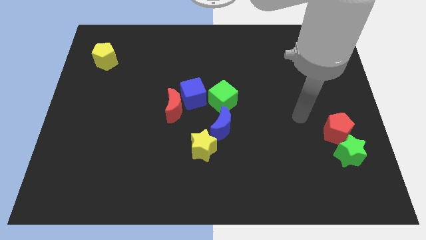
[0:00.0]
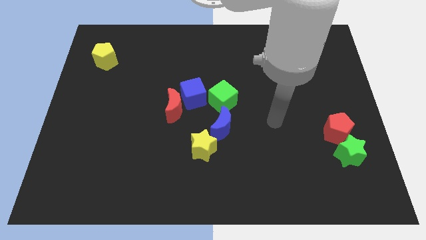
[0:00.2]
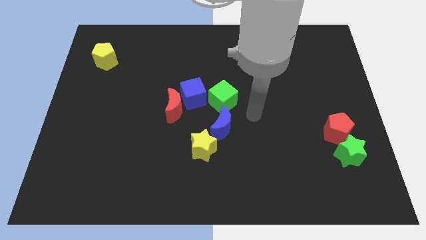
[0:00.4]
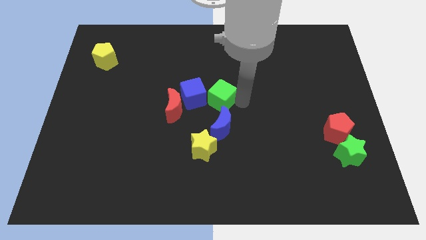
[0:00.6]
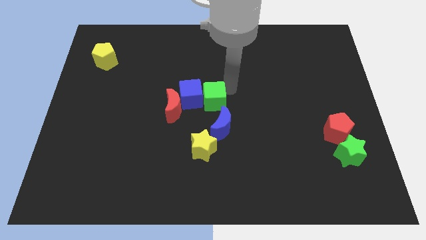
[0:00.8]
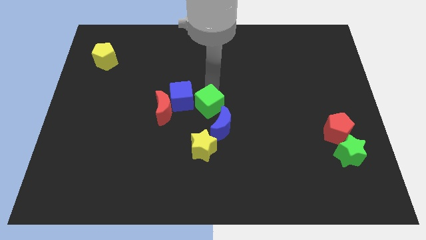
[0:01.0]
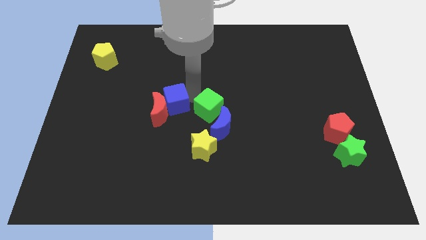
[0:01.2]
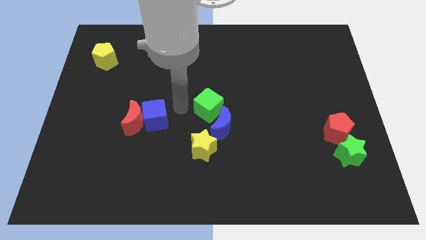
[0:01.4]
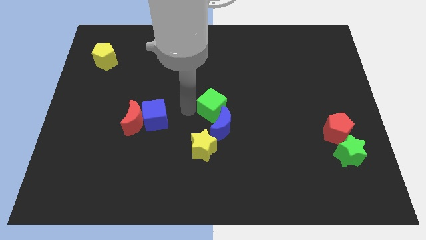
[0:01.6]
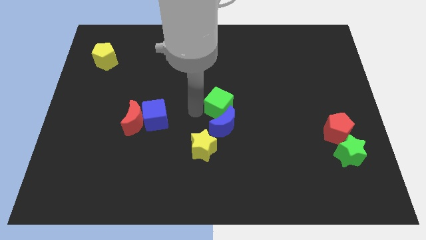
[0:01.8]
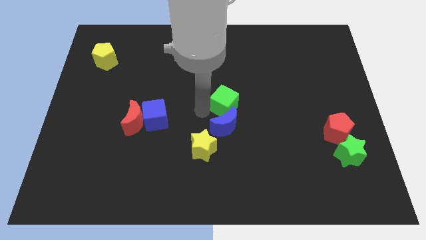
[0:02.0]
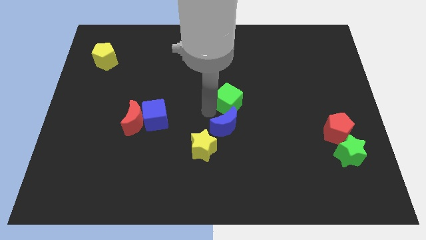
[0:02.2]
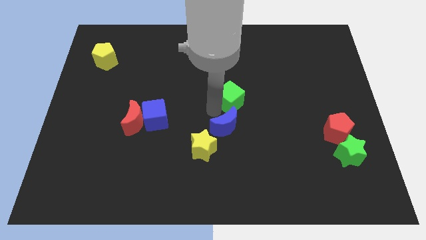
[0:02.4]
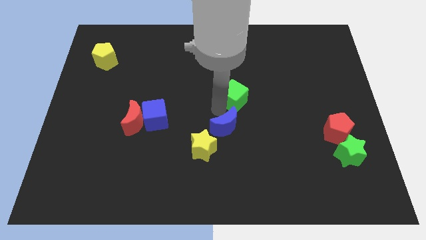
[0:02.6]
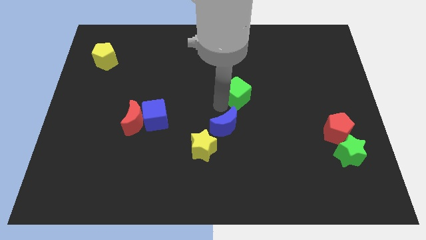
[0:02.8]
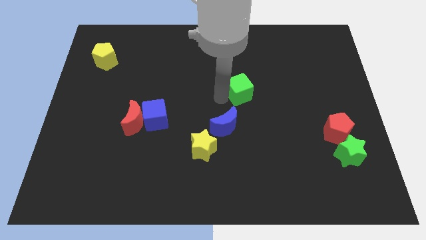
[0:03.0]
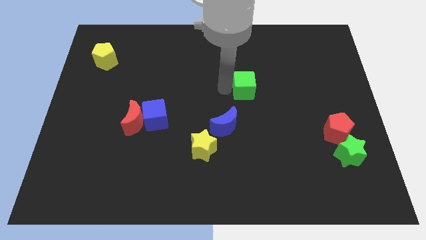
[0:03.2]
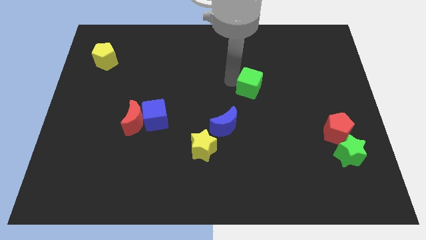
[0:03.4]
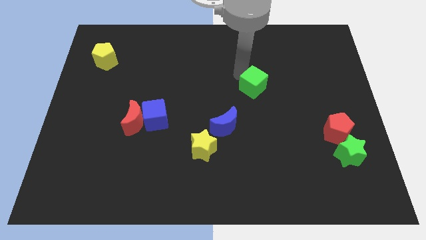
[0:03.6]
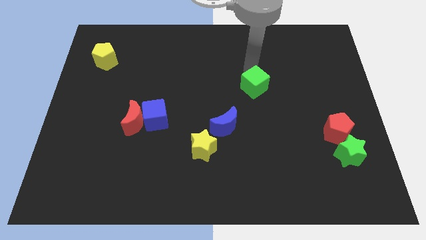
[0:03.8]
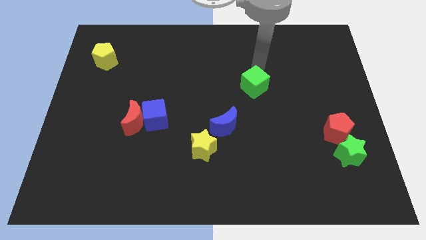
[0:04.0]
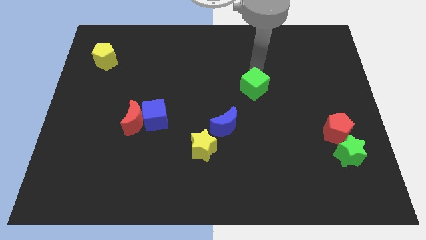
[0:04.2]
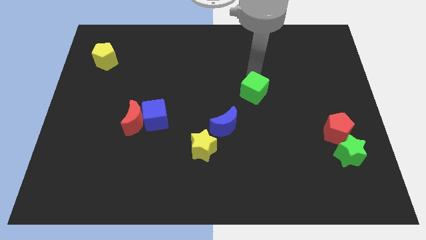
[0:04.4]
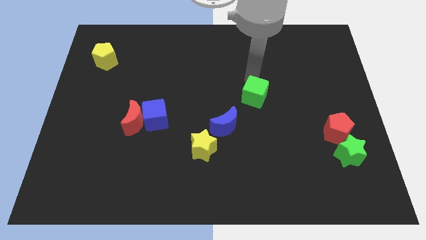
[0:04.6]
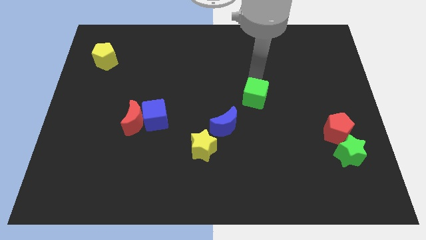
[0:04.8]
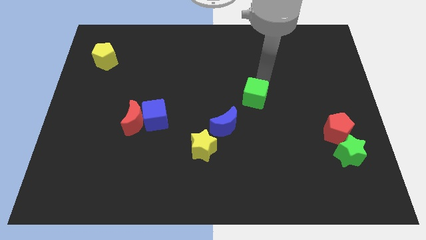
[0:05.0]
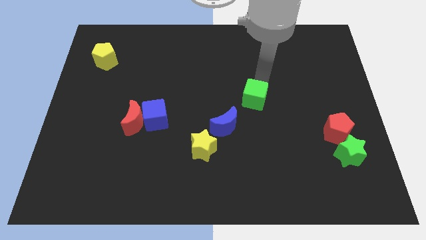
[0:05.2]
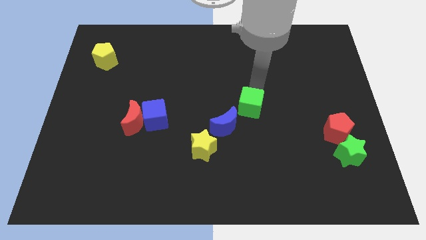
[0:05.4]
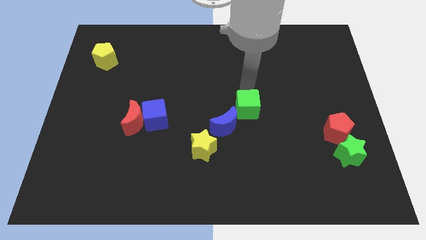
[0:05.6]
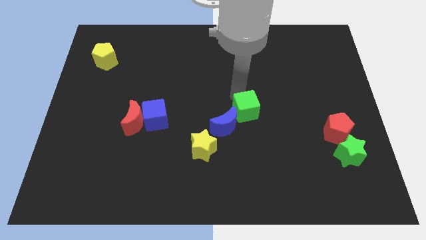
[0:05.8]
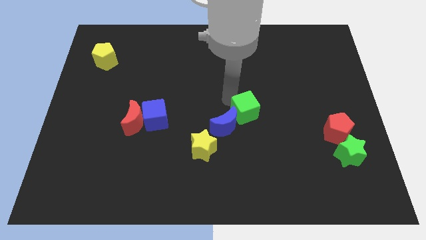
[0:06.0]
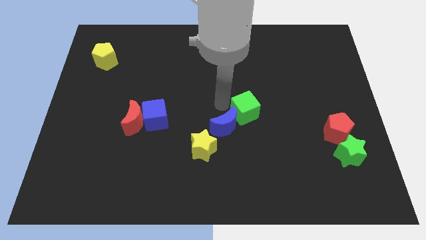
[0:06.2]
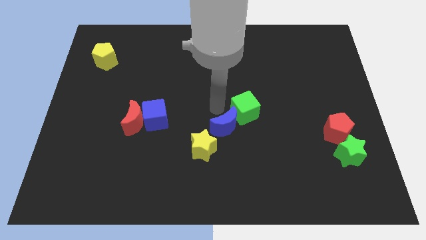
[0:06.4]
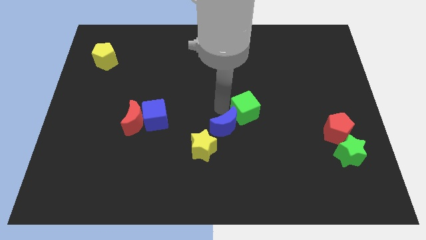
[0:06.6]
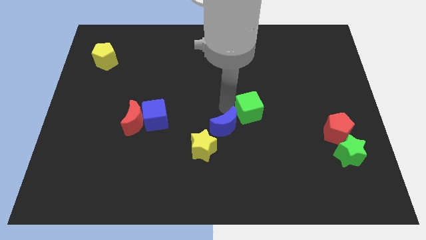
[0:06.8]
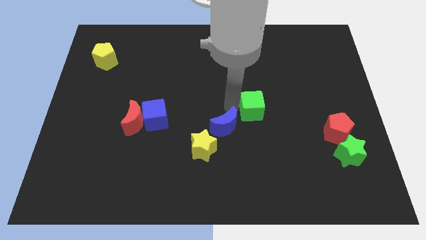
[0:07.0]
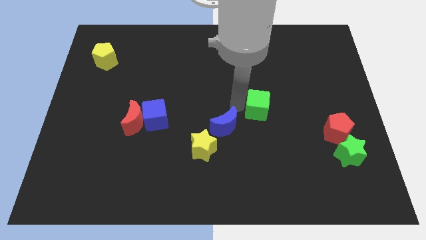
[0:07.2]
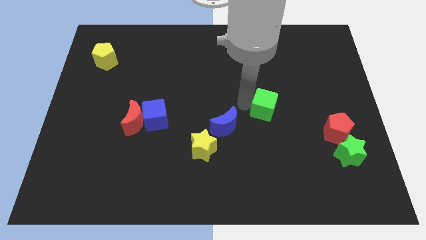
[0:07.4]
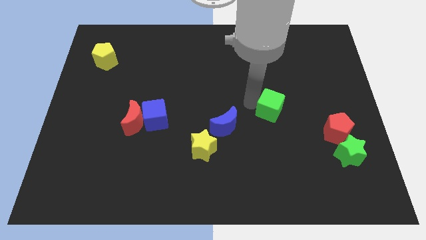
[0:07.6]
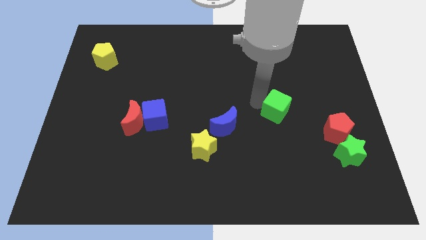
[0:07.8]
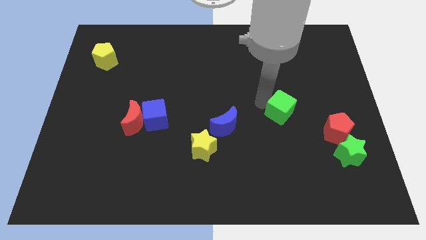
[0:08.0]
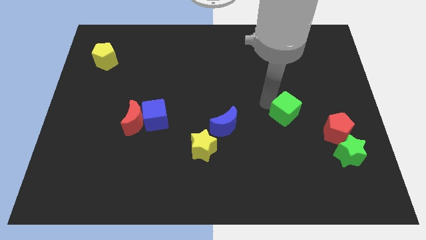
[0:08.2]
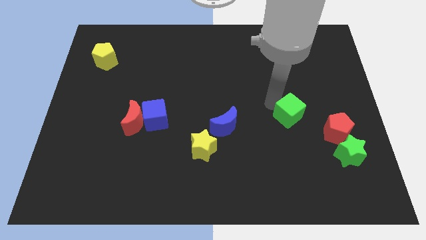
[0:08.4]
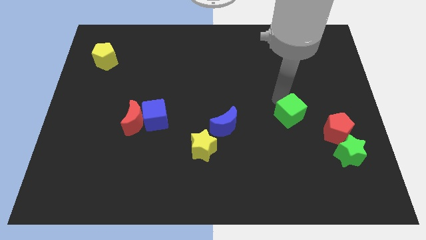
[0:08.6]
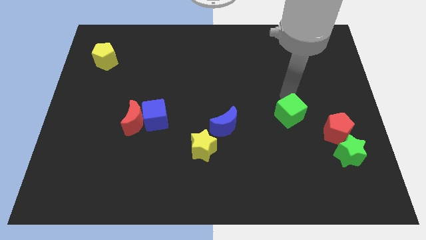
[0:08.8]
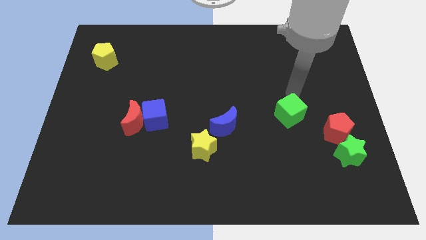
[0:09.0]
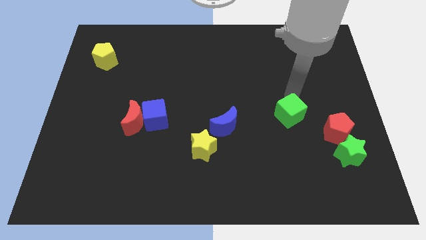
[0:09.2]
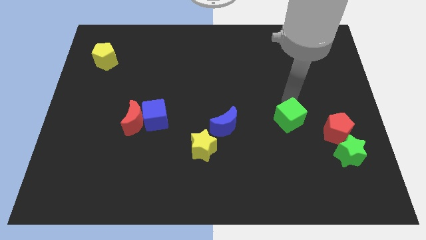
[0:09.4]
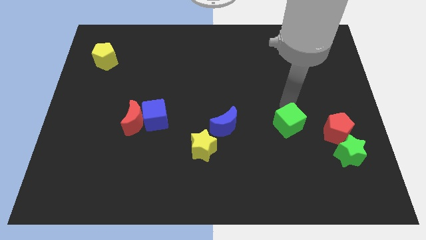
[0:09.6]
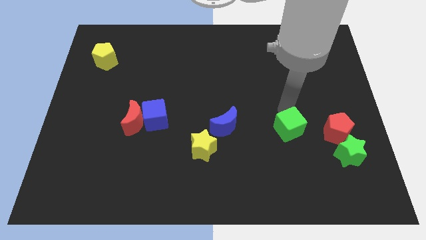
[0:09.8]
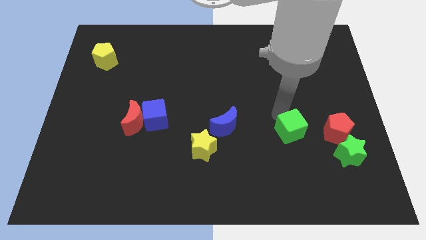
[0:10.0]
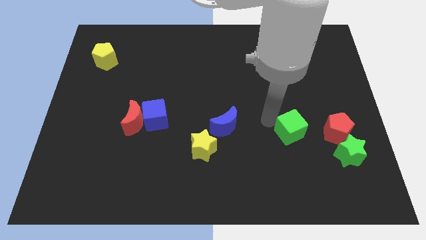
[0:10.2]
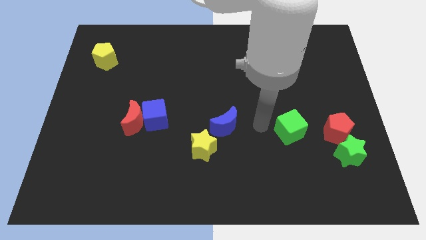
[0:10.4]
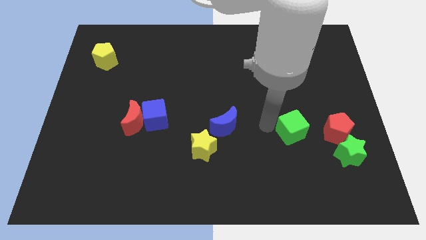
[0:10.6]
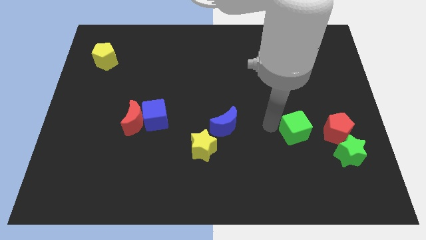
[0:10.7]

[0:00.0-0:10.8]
put the green cube diagonally up and to the left of the green star

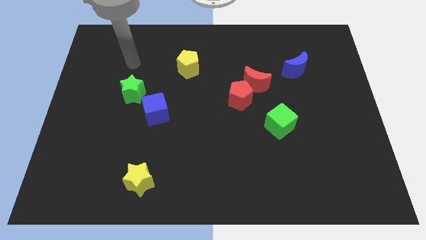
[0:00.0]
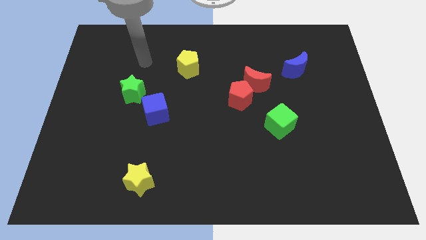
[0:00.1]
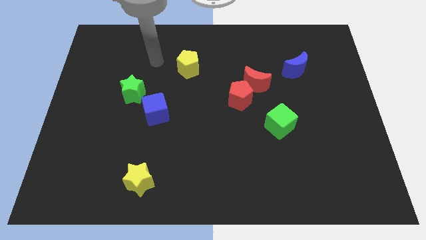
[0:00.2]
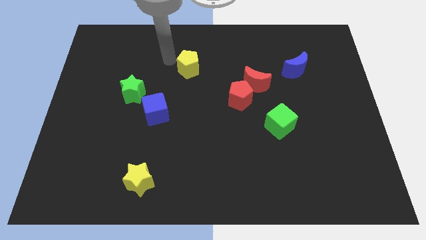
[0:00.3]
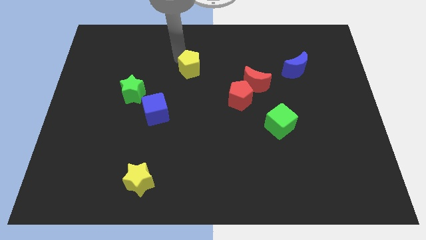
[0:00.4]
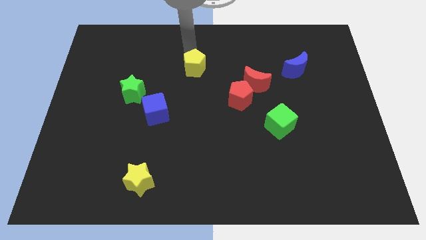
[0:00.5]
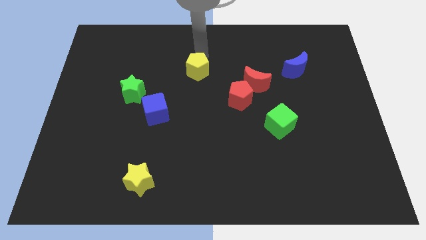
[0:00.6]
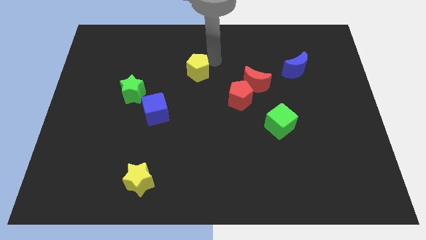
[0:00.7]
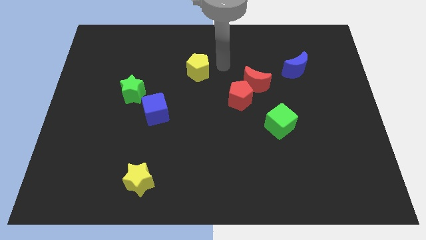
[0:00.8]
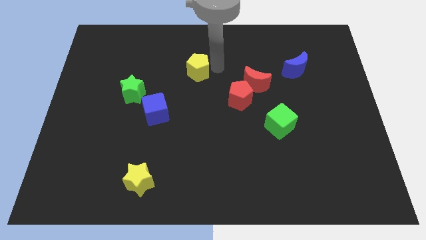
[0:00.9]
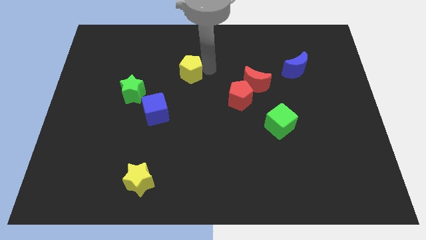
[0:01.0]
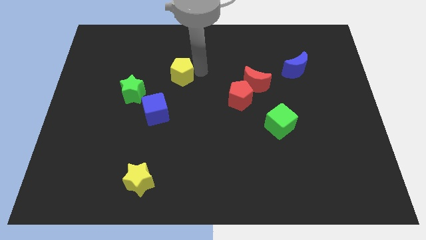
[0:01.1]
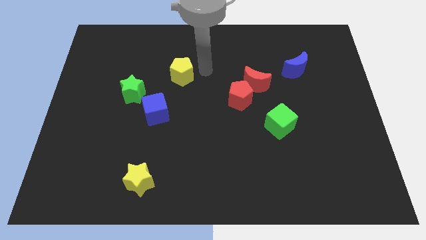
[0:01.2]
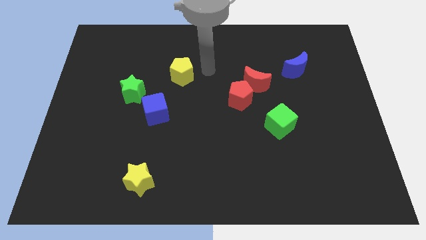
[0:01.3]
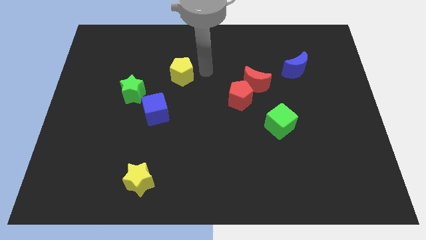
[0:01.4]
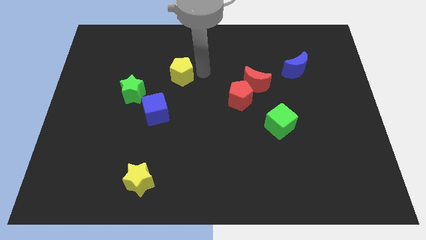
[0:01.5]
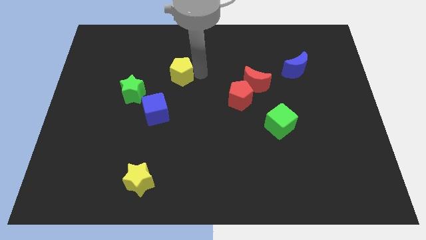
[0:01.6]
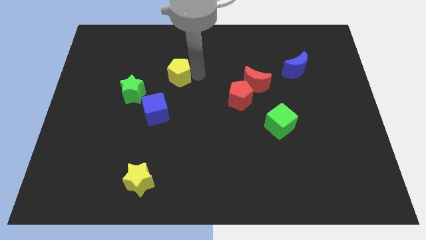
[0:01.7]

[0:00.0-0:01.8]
slide the yellow pentagon to the top of the blue cube

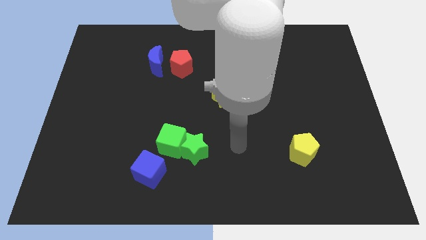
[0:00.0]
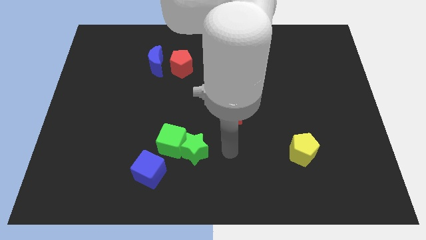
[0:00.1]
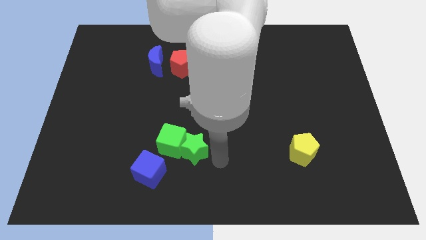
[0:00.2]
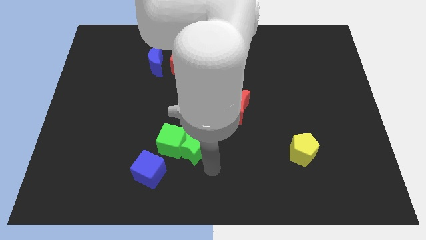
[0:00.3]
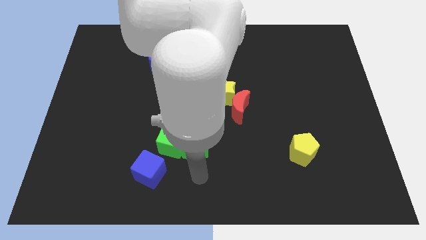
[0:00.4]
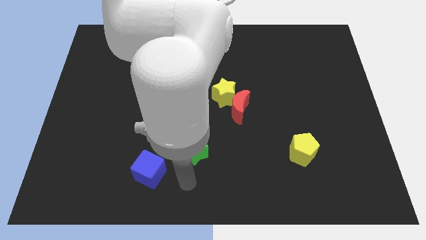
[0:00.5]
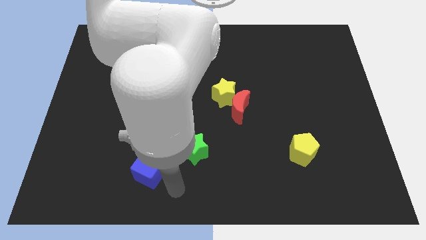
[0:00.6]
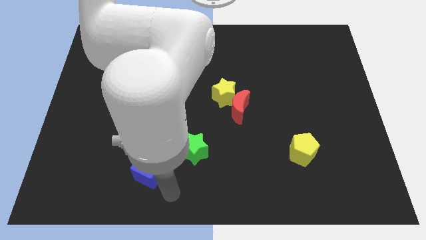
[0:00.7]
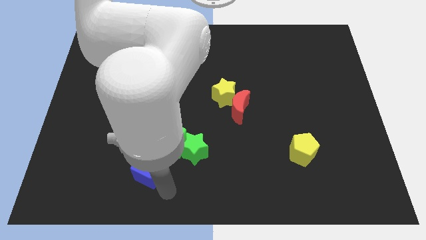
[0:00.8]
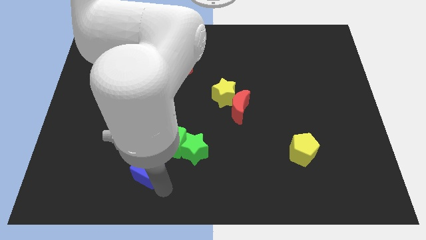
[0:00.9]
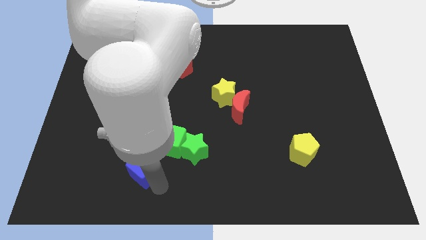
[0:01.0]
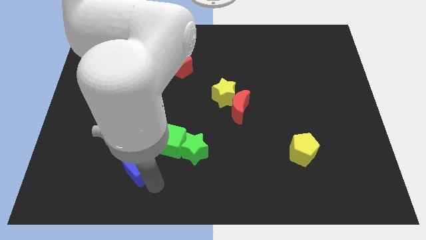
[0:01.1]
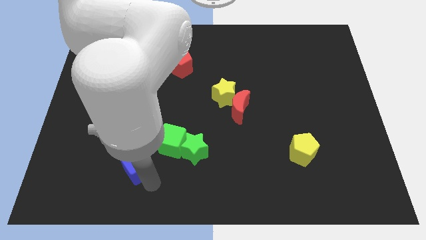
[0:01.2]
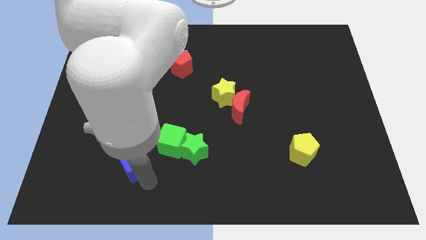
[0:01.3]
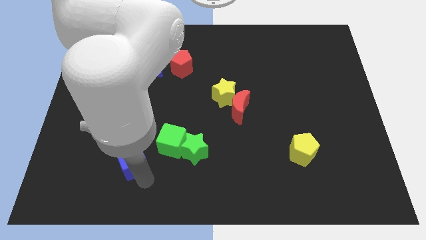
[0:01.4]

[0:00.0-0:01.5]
push the blue cube to the left of the green cube
